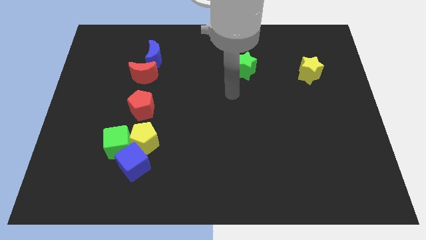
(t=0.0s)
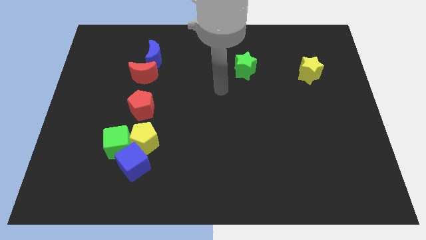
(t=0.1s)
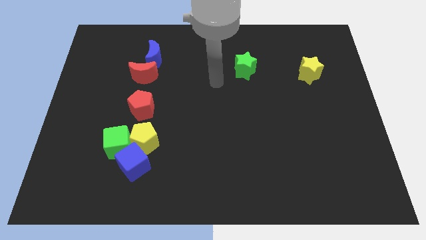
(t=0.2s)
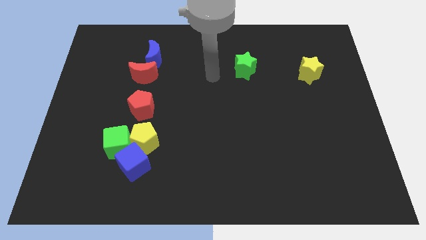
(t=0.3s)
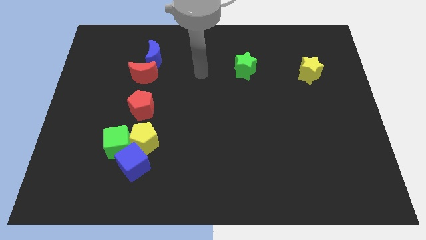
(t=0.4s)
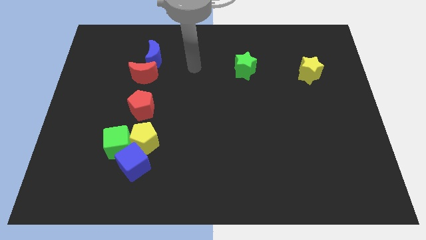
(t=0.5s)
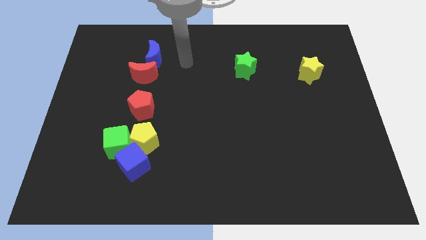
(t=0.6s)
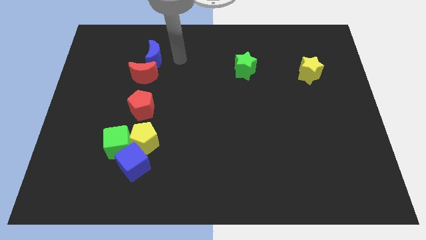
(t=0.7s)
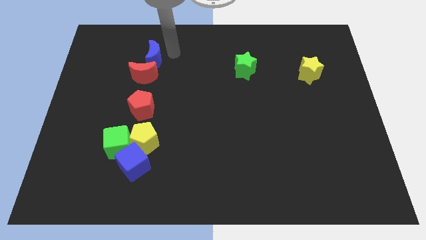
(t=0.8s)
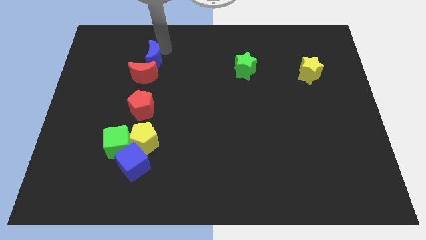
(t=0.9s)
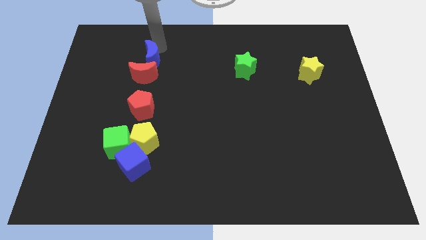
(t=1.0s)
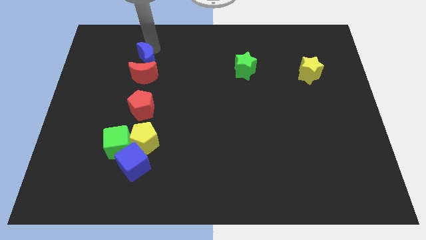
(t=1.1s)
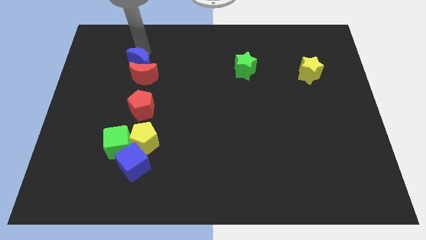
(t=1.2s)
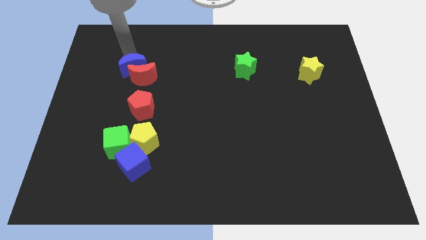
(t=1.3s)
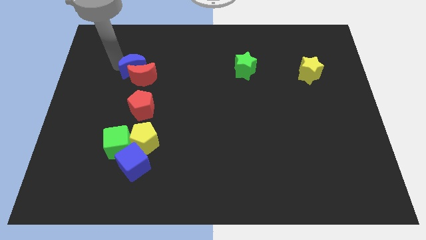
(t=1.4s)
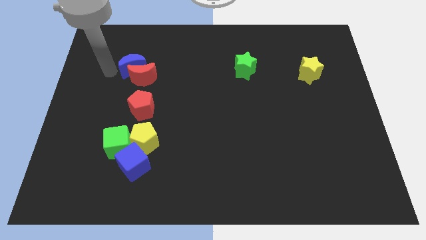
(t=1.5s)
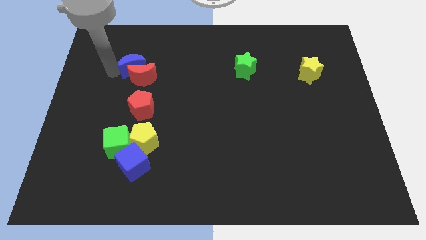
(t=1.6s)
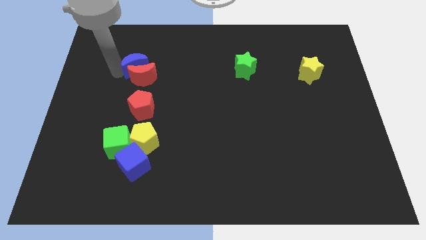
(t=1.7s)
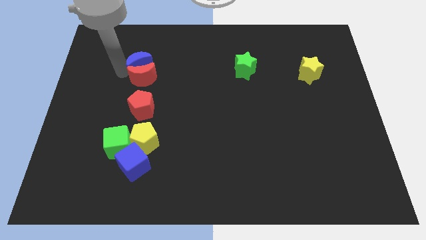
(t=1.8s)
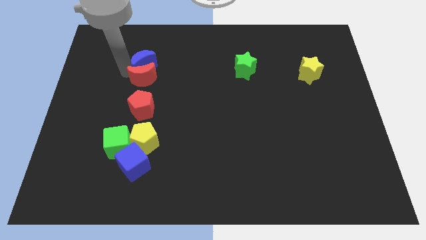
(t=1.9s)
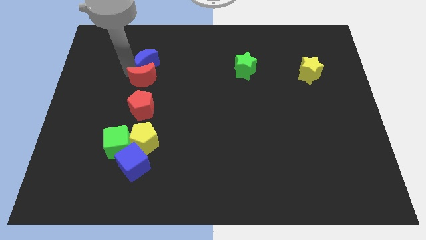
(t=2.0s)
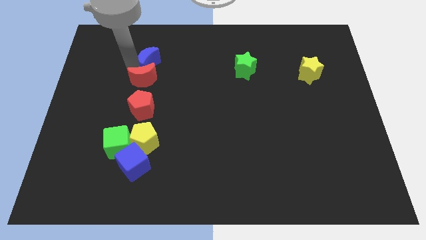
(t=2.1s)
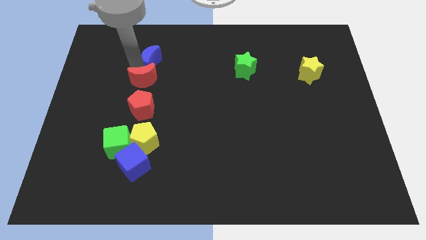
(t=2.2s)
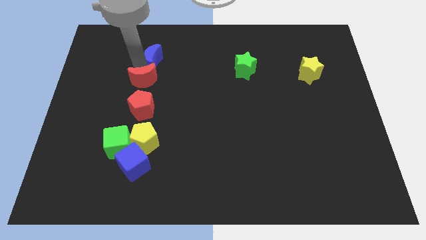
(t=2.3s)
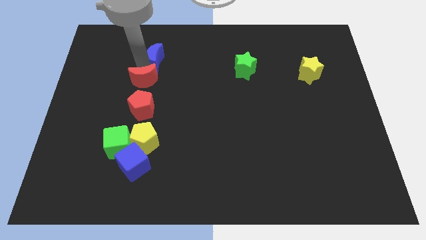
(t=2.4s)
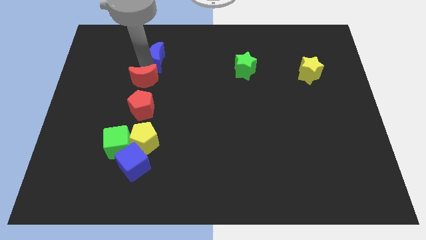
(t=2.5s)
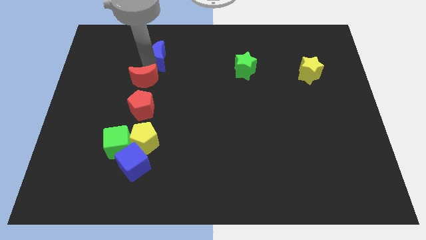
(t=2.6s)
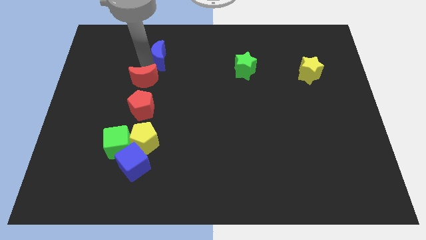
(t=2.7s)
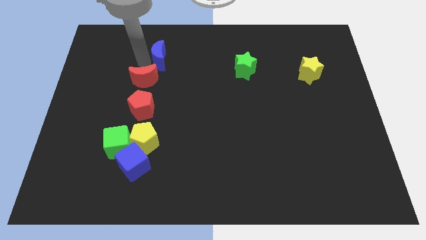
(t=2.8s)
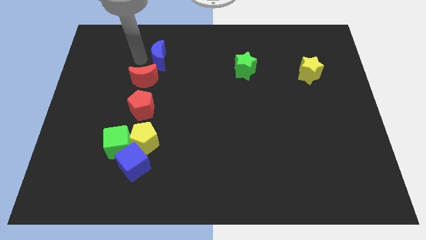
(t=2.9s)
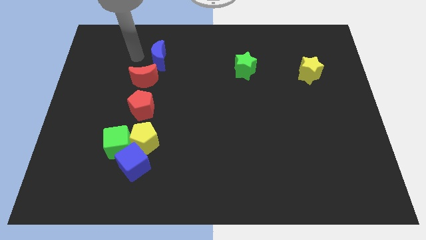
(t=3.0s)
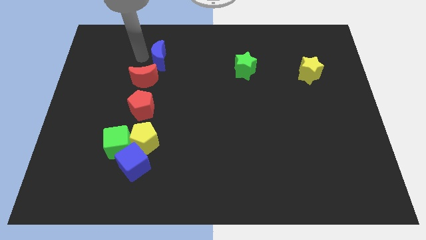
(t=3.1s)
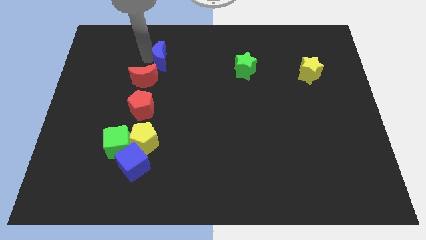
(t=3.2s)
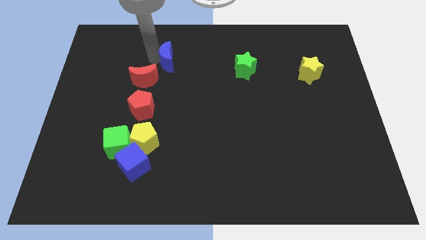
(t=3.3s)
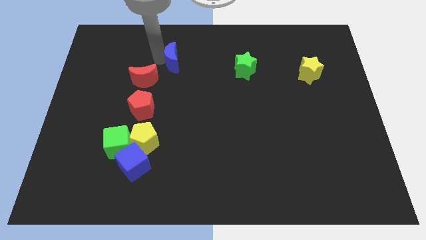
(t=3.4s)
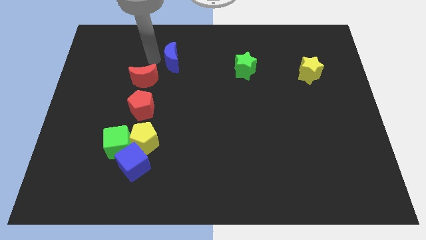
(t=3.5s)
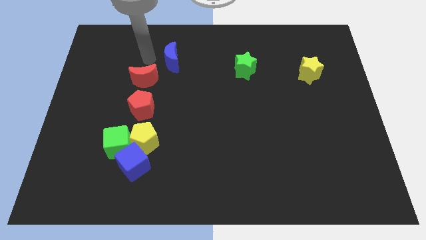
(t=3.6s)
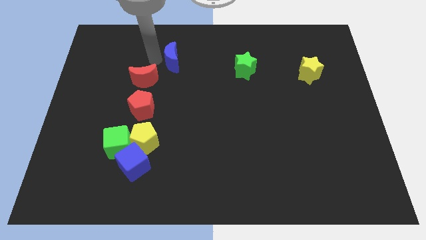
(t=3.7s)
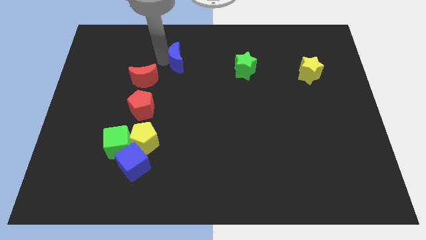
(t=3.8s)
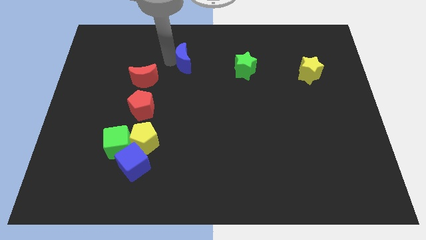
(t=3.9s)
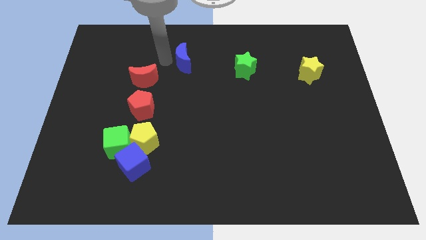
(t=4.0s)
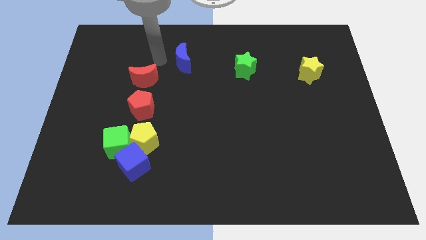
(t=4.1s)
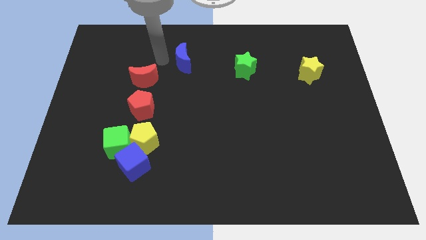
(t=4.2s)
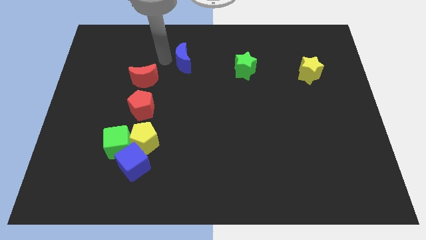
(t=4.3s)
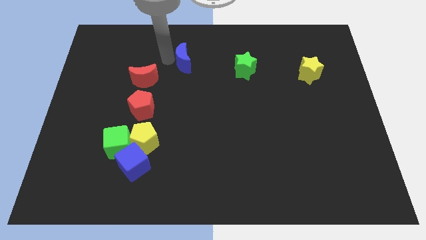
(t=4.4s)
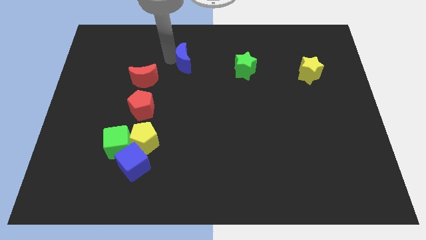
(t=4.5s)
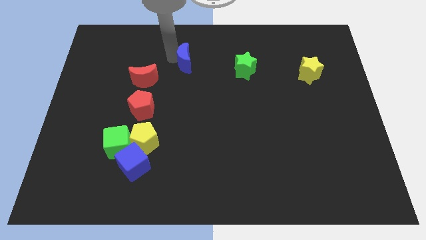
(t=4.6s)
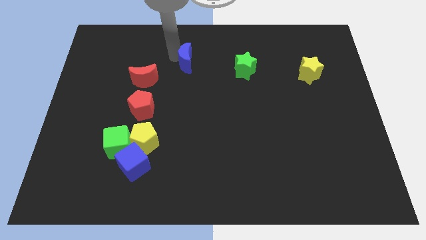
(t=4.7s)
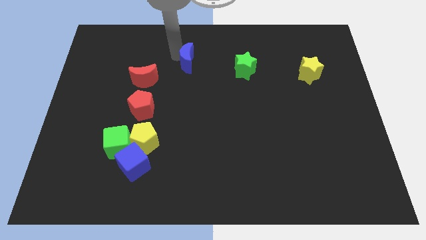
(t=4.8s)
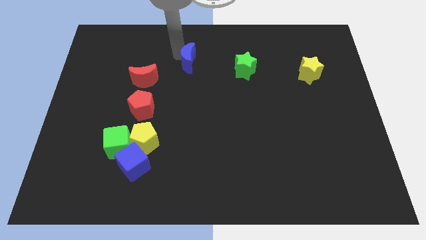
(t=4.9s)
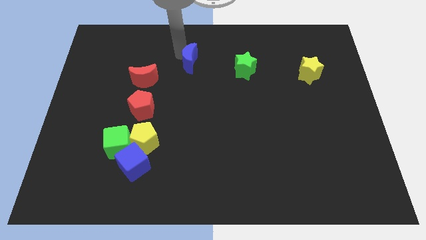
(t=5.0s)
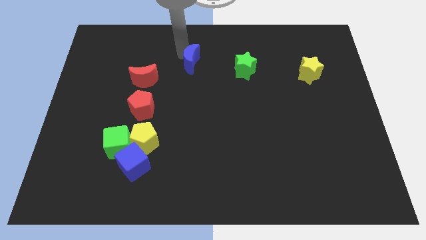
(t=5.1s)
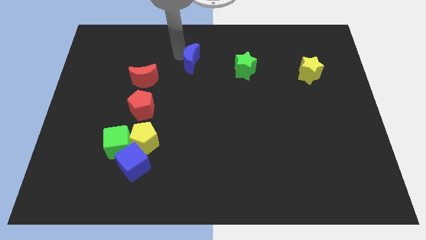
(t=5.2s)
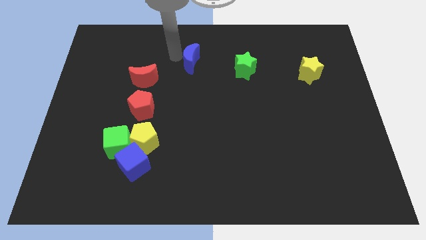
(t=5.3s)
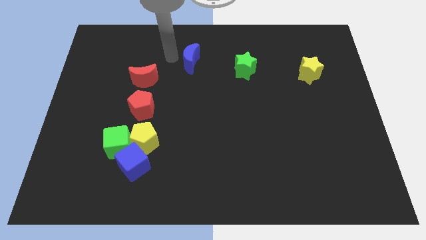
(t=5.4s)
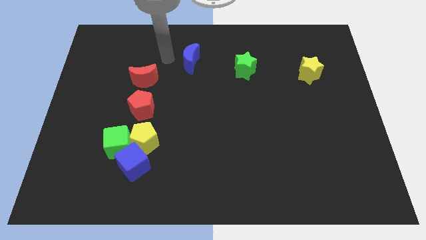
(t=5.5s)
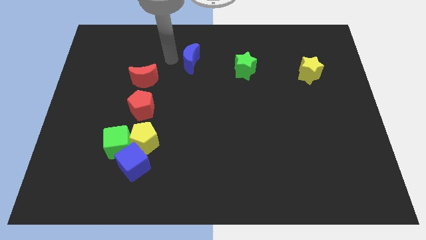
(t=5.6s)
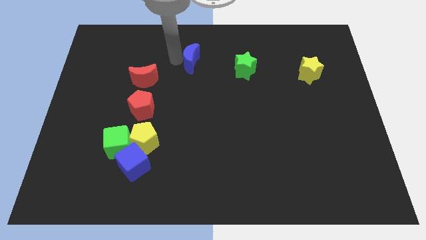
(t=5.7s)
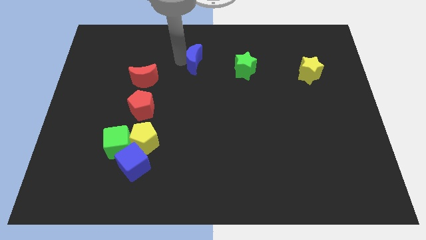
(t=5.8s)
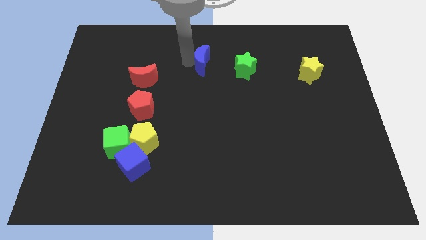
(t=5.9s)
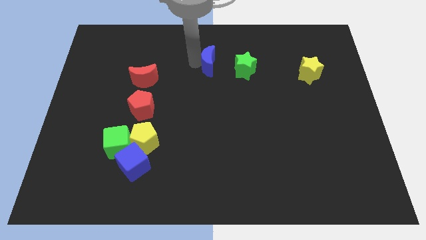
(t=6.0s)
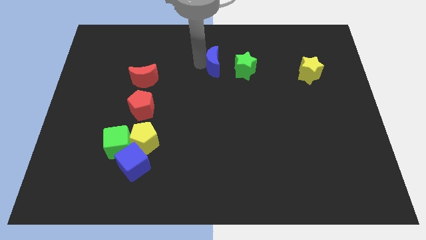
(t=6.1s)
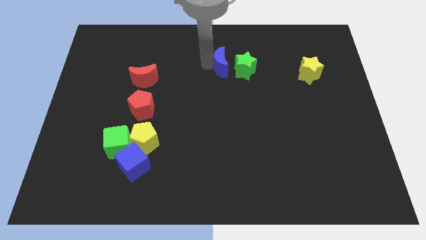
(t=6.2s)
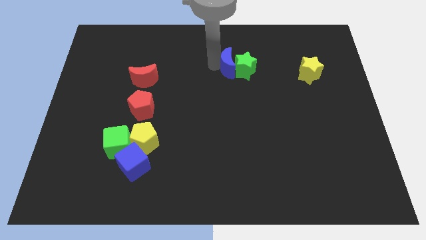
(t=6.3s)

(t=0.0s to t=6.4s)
push the blue moon to the green star

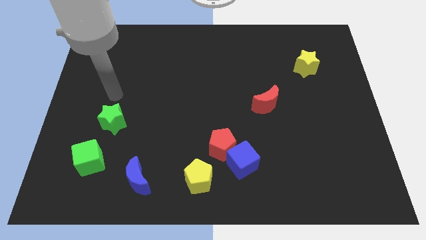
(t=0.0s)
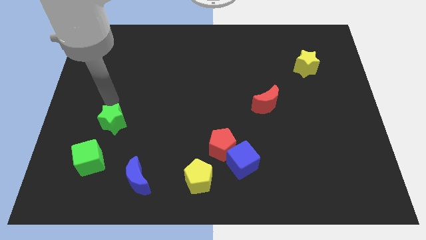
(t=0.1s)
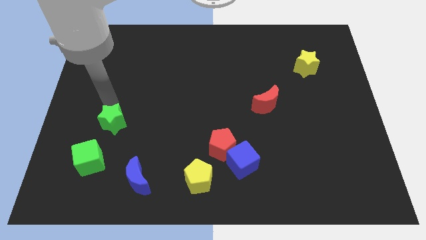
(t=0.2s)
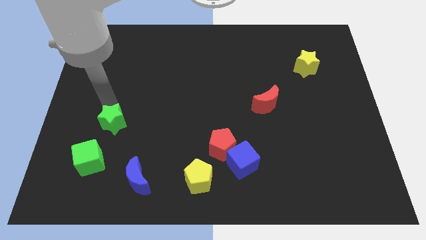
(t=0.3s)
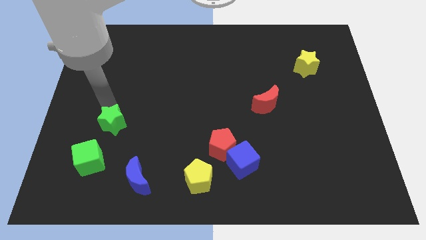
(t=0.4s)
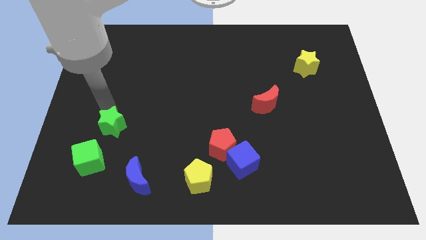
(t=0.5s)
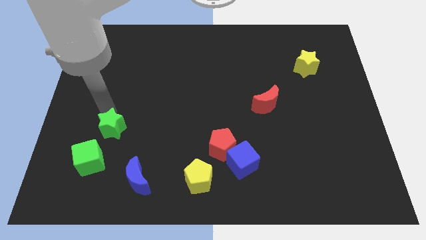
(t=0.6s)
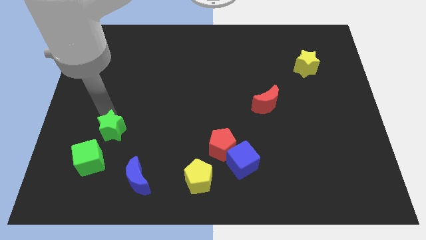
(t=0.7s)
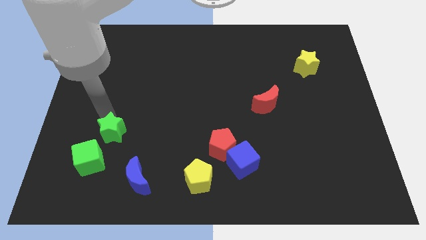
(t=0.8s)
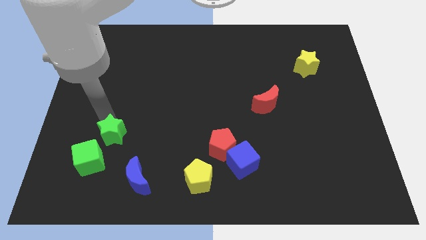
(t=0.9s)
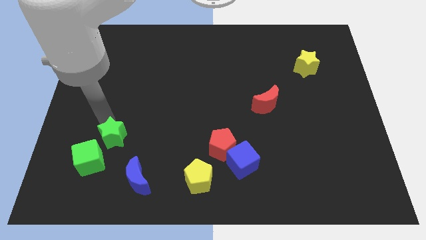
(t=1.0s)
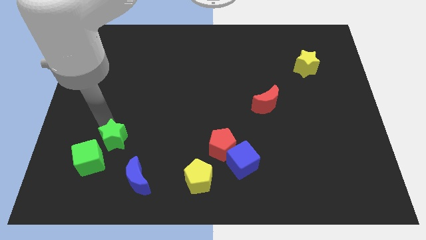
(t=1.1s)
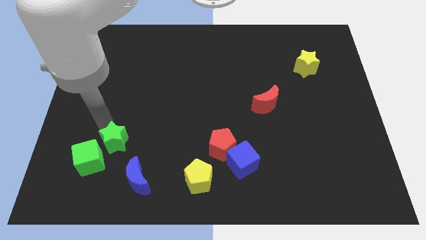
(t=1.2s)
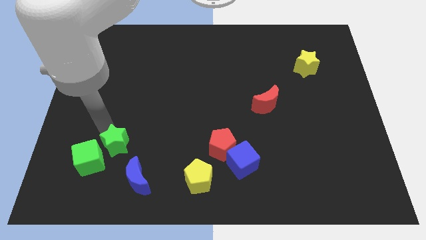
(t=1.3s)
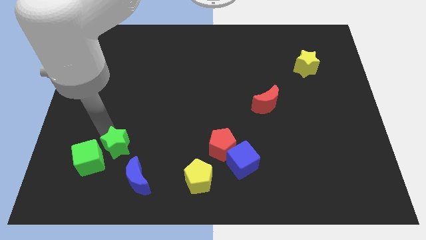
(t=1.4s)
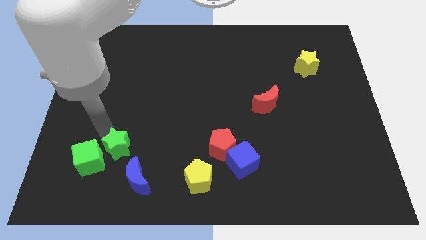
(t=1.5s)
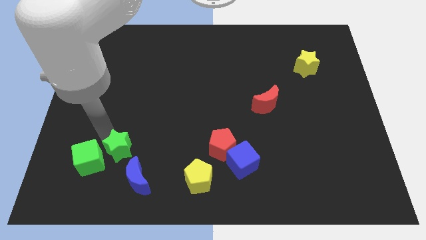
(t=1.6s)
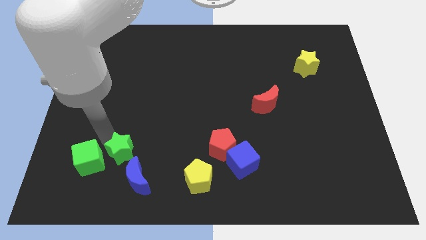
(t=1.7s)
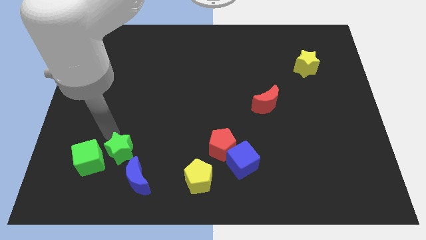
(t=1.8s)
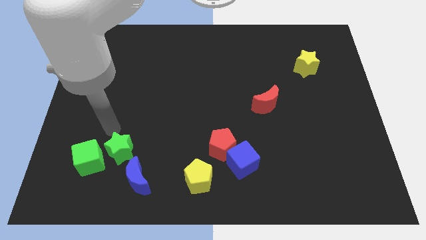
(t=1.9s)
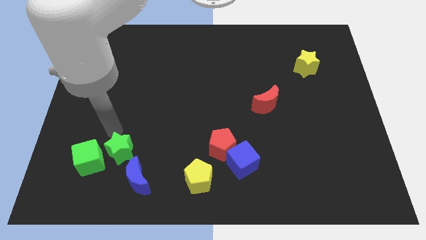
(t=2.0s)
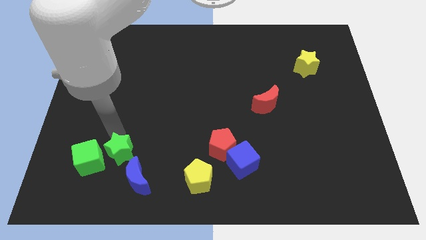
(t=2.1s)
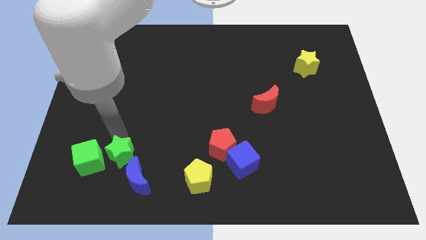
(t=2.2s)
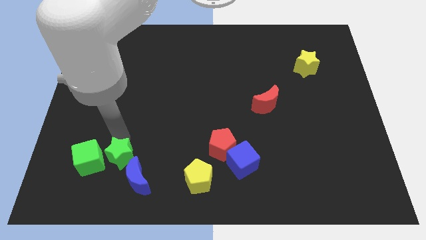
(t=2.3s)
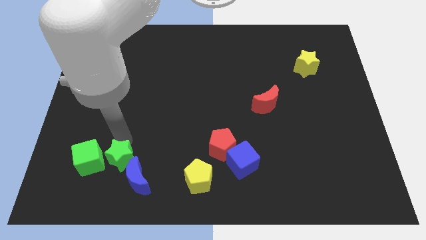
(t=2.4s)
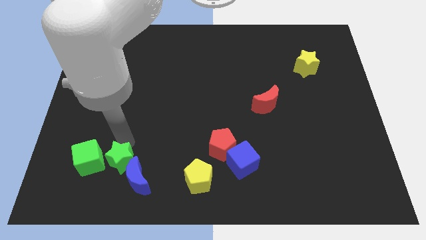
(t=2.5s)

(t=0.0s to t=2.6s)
move the green star towards the blue moon
